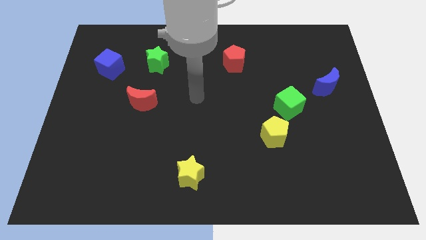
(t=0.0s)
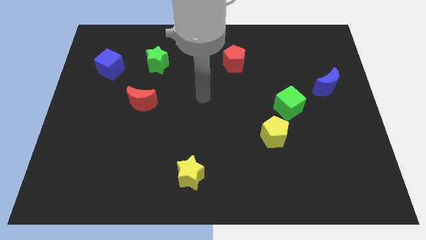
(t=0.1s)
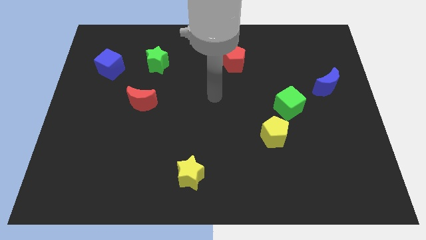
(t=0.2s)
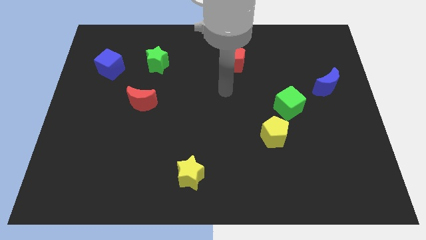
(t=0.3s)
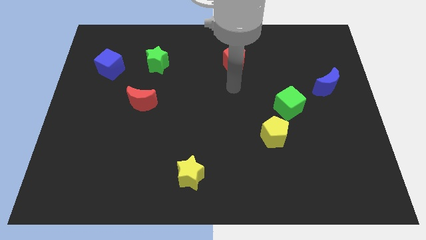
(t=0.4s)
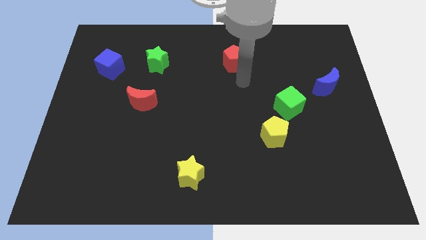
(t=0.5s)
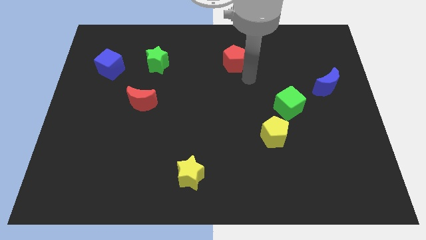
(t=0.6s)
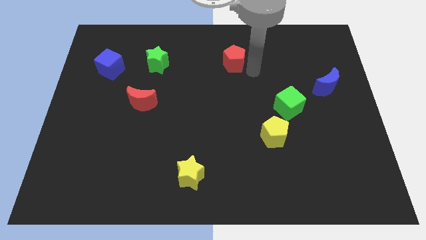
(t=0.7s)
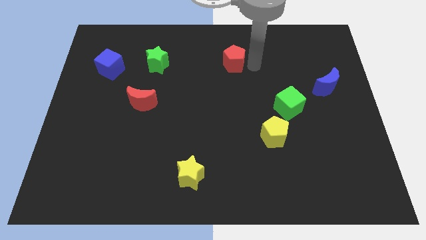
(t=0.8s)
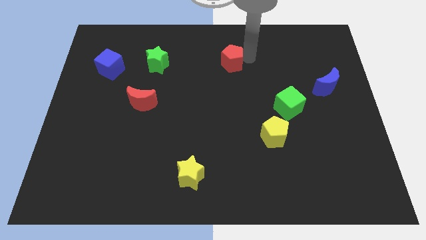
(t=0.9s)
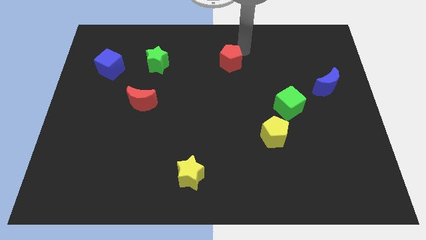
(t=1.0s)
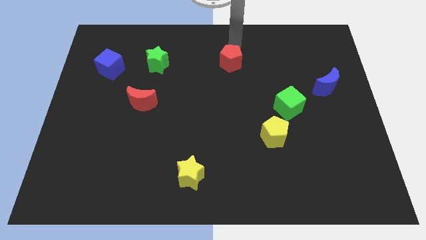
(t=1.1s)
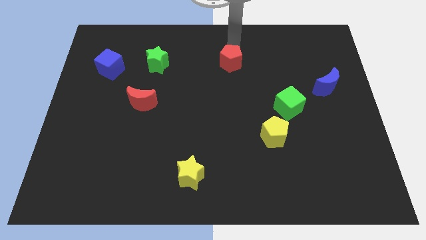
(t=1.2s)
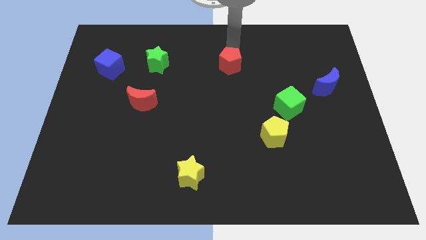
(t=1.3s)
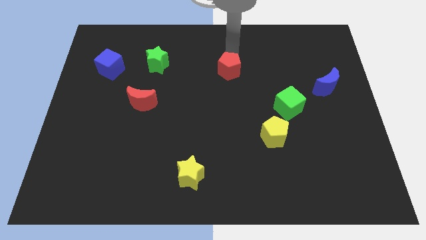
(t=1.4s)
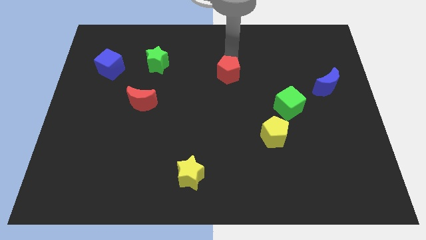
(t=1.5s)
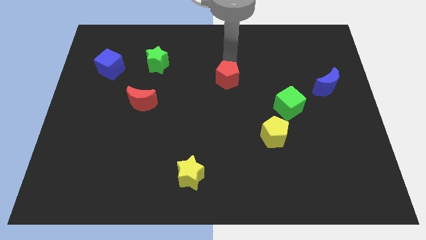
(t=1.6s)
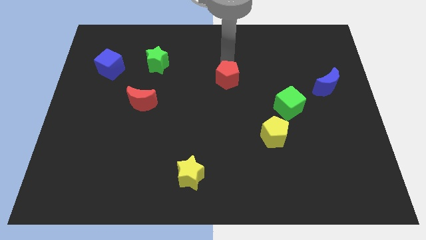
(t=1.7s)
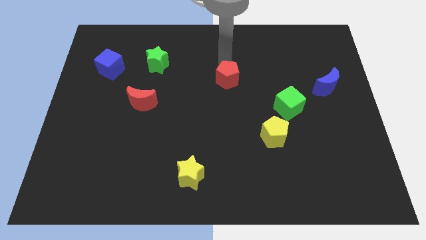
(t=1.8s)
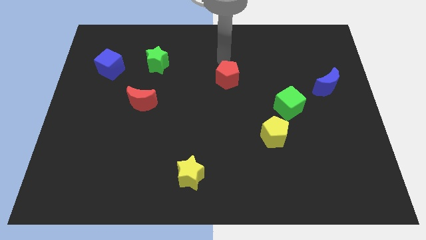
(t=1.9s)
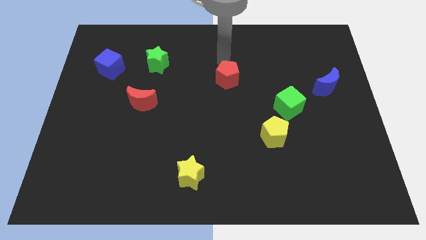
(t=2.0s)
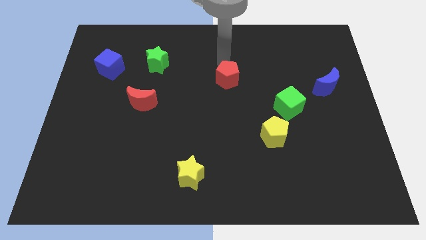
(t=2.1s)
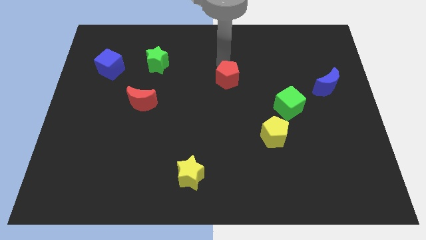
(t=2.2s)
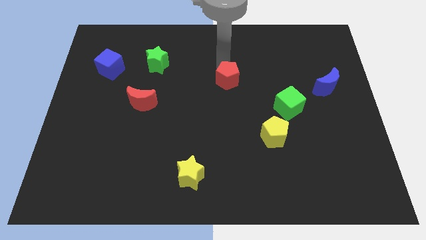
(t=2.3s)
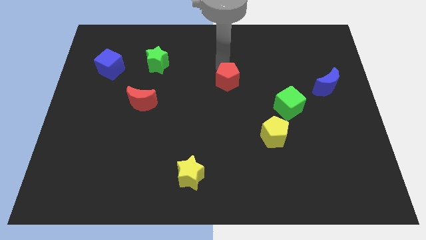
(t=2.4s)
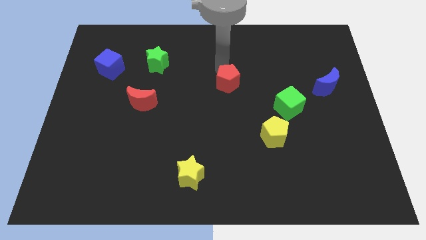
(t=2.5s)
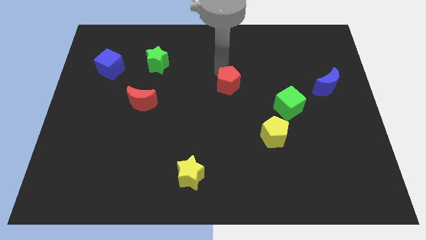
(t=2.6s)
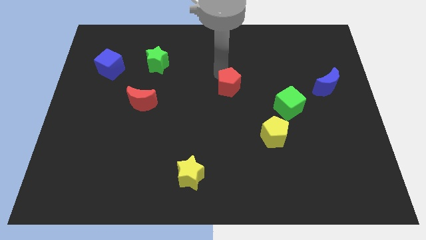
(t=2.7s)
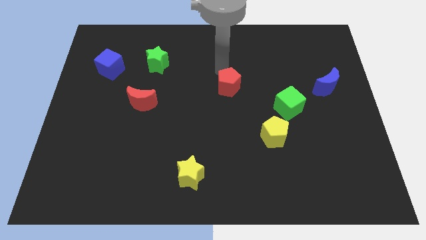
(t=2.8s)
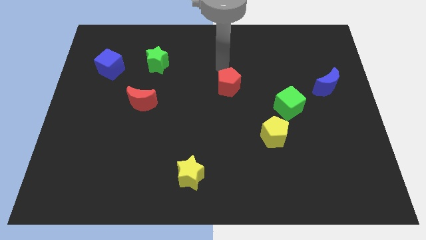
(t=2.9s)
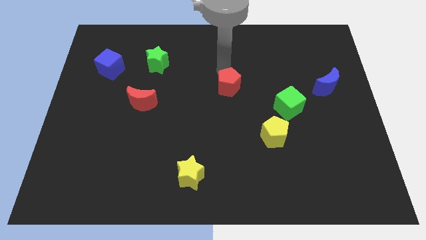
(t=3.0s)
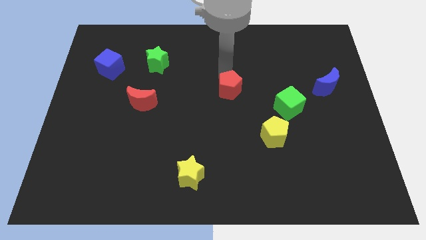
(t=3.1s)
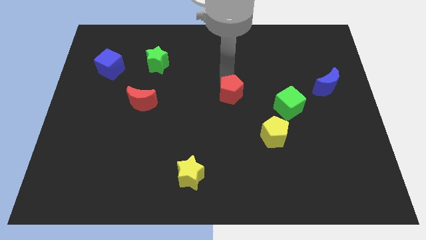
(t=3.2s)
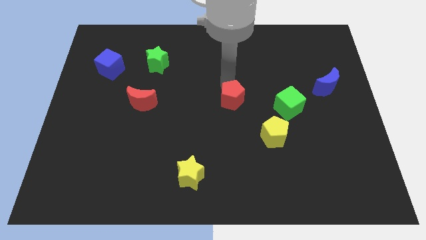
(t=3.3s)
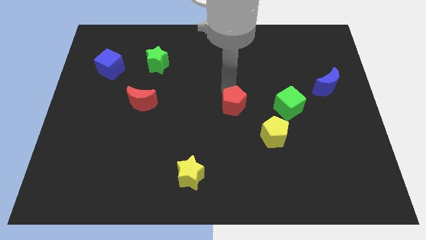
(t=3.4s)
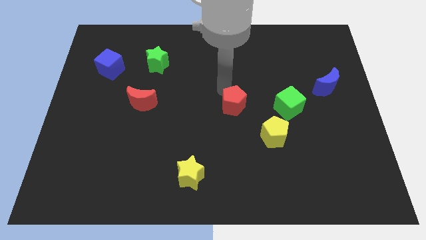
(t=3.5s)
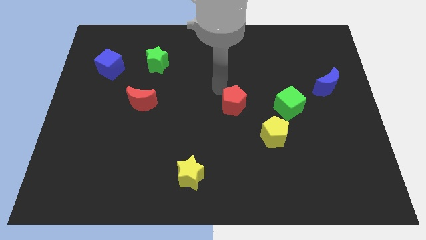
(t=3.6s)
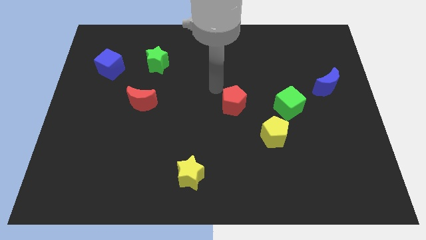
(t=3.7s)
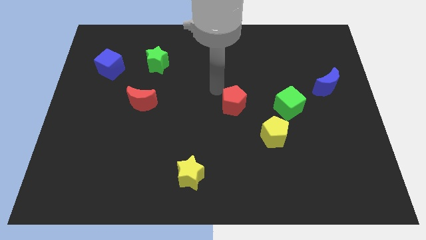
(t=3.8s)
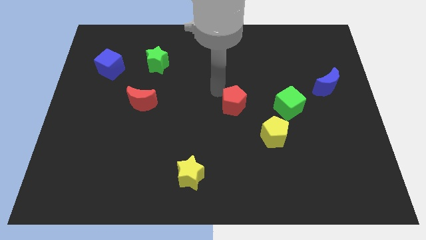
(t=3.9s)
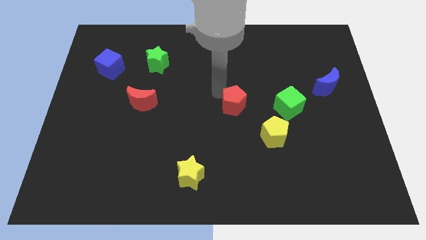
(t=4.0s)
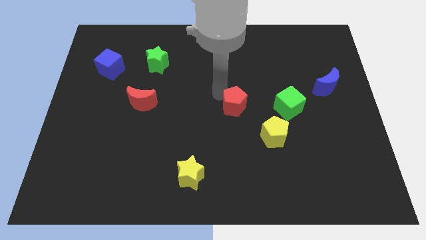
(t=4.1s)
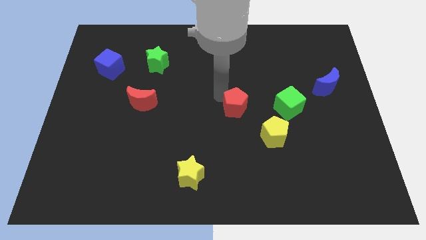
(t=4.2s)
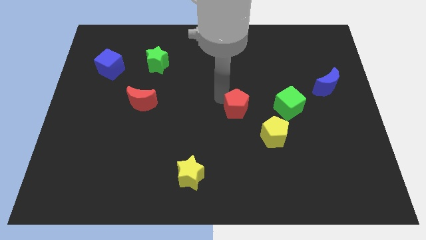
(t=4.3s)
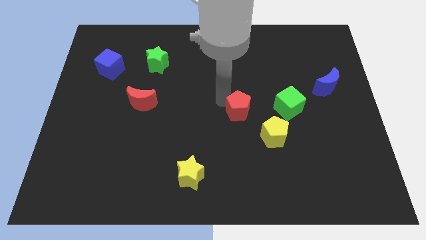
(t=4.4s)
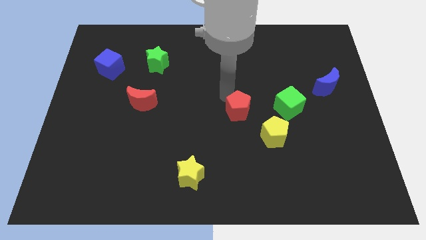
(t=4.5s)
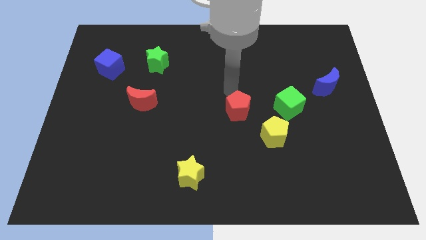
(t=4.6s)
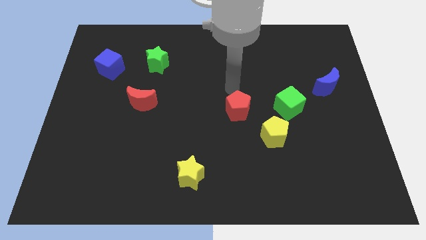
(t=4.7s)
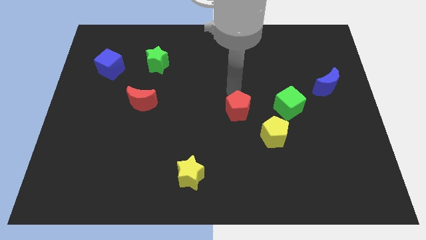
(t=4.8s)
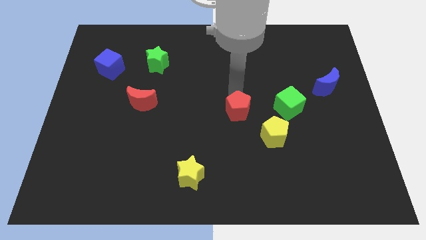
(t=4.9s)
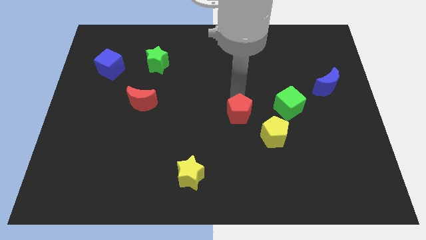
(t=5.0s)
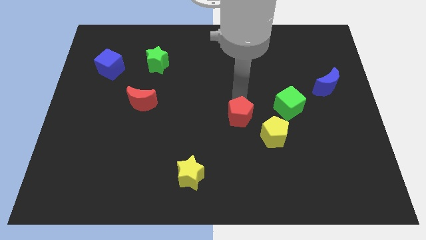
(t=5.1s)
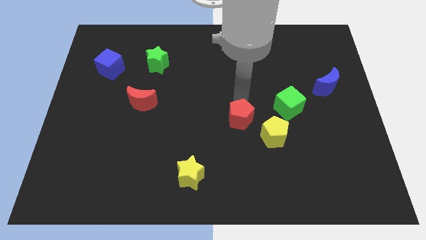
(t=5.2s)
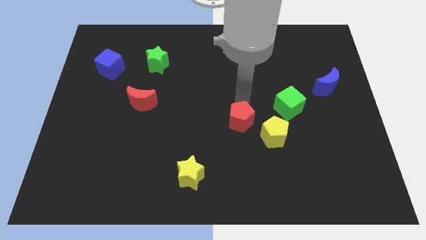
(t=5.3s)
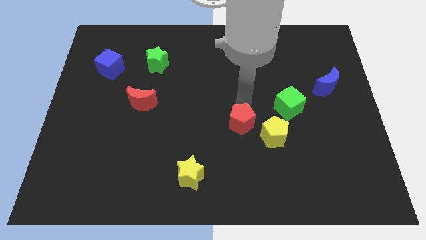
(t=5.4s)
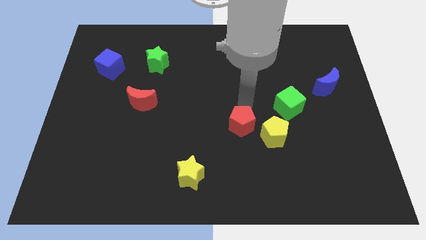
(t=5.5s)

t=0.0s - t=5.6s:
slide the red pentagon downwards

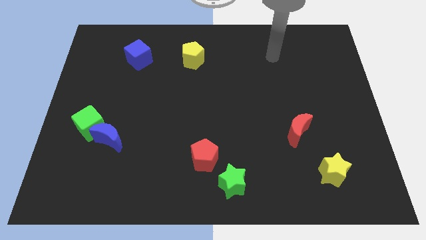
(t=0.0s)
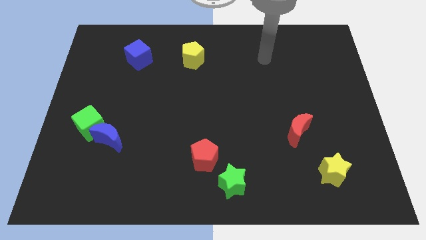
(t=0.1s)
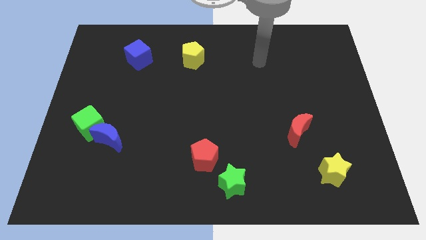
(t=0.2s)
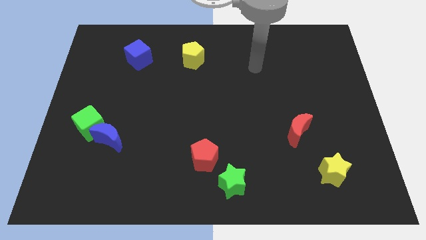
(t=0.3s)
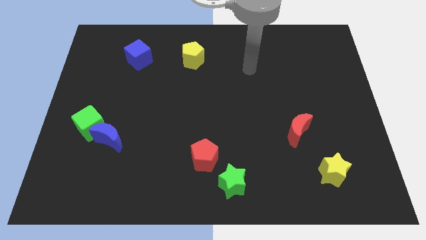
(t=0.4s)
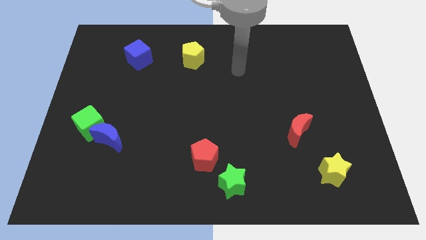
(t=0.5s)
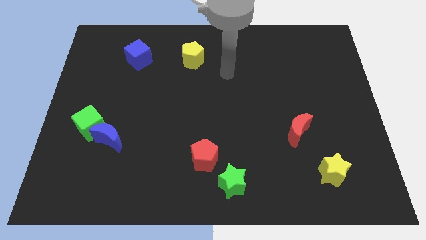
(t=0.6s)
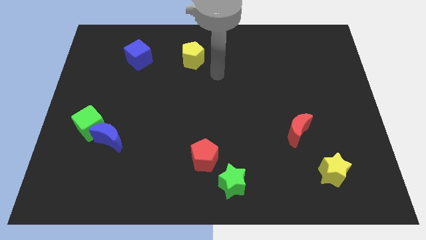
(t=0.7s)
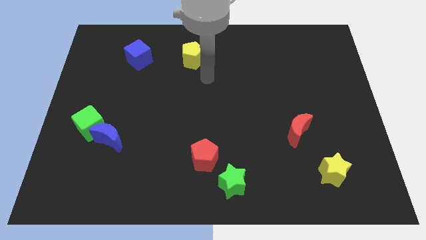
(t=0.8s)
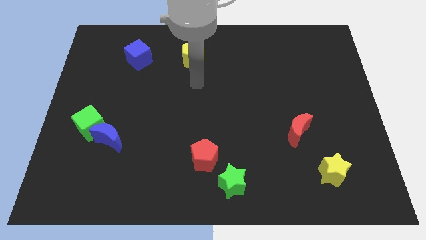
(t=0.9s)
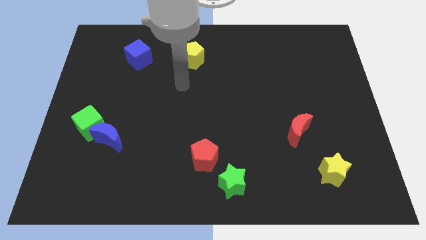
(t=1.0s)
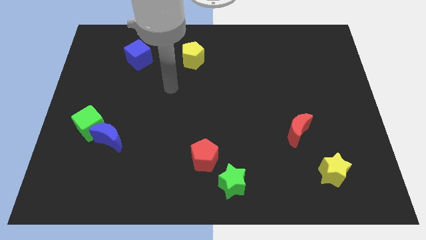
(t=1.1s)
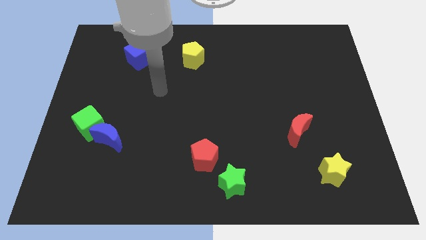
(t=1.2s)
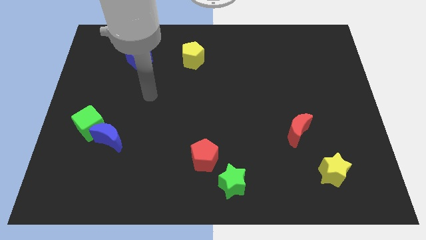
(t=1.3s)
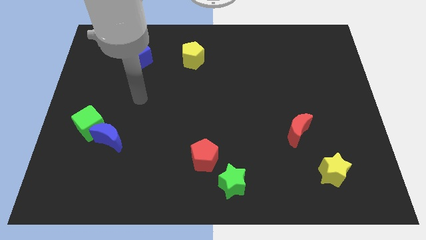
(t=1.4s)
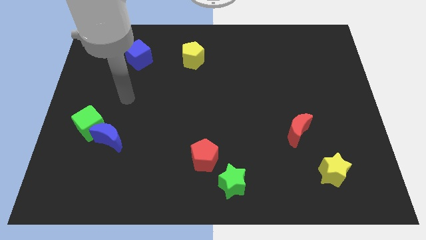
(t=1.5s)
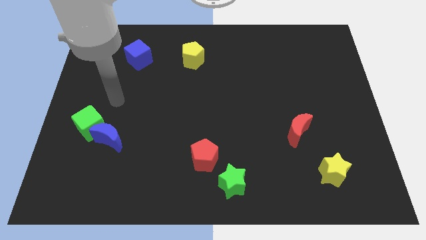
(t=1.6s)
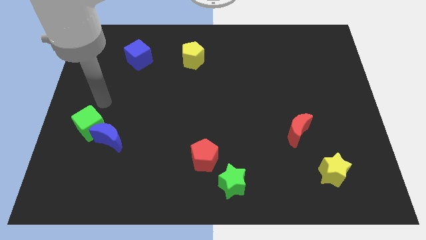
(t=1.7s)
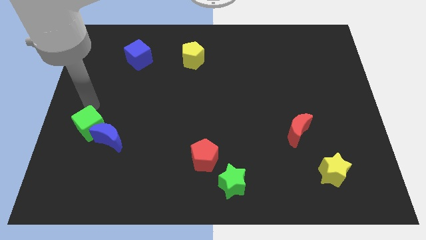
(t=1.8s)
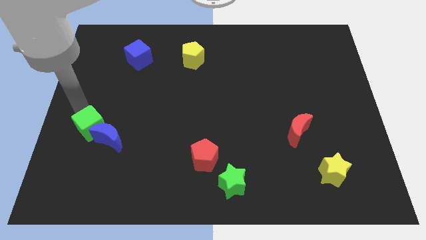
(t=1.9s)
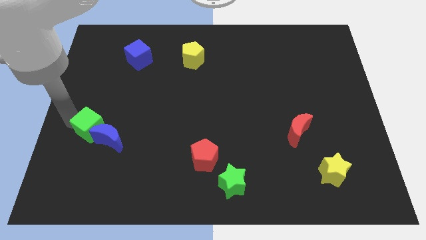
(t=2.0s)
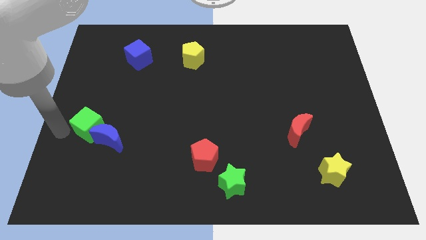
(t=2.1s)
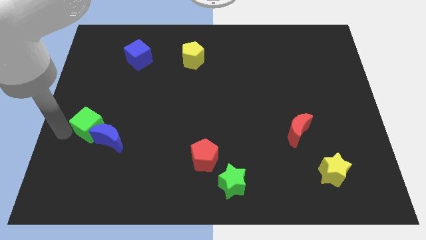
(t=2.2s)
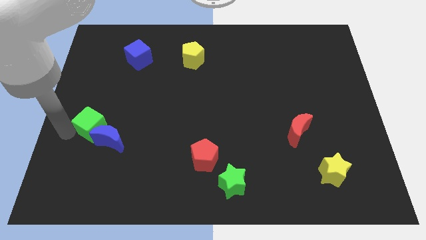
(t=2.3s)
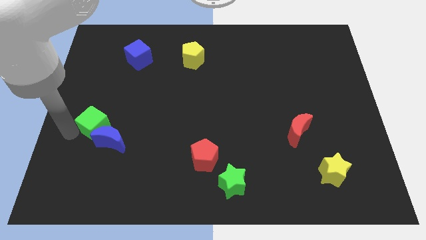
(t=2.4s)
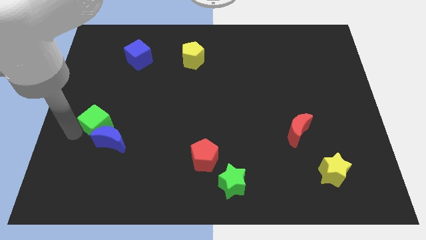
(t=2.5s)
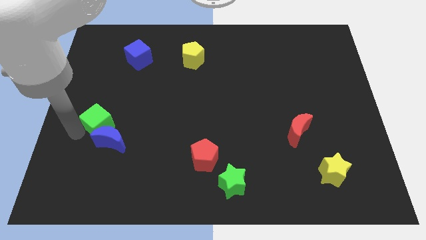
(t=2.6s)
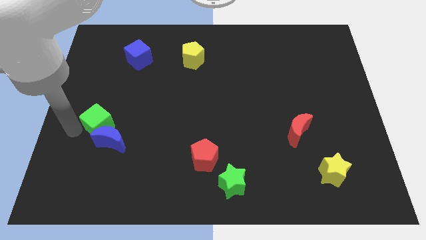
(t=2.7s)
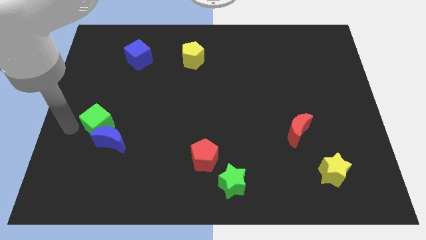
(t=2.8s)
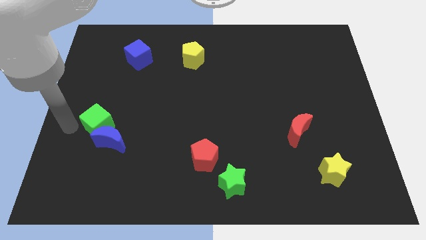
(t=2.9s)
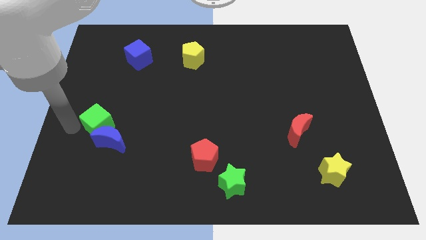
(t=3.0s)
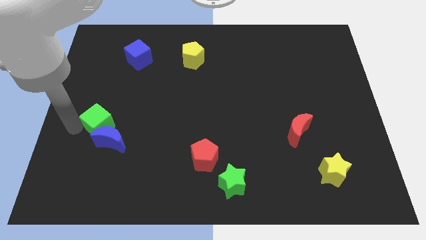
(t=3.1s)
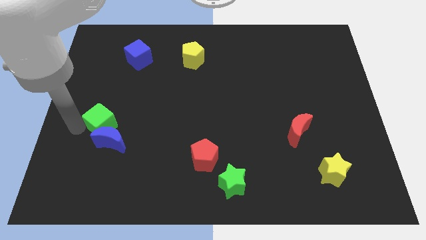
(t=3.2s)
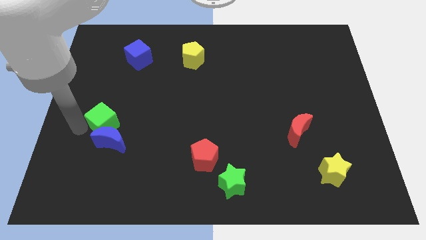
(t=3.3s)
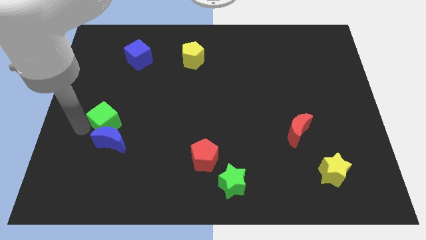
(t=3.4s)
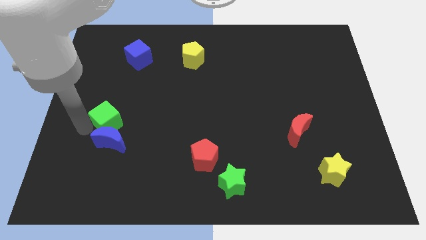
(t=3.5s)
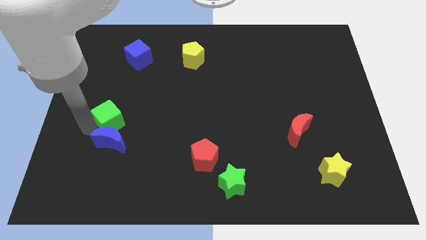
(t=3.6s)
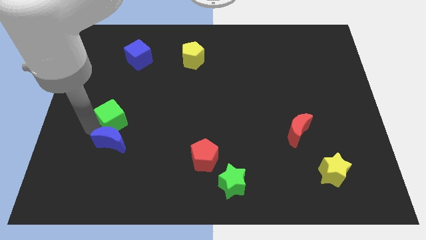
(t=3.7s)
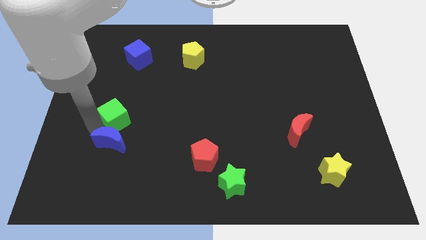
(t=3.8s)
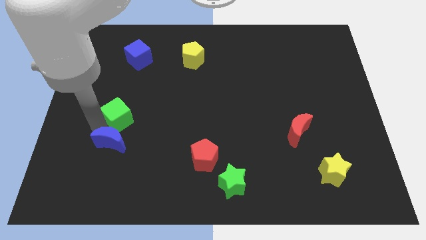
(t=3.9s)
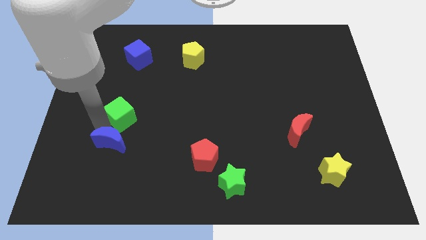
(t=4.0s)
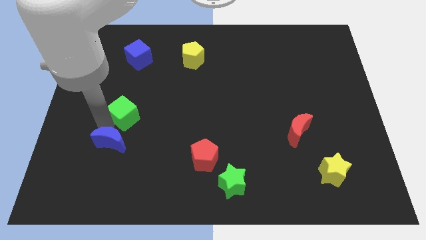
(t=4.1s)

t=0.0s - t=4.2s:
move the green cube somewhat diagonally upwards and right
